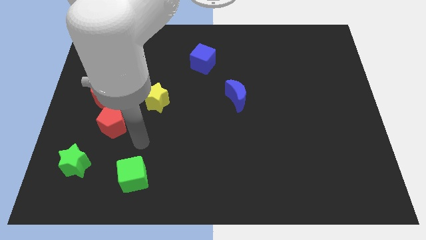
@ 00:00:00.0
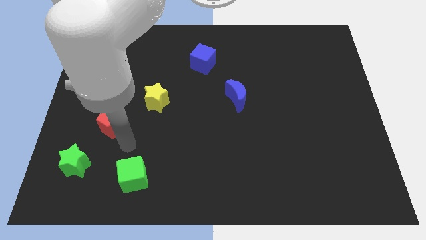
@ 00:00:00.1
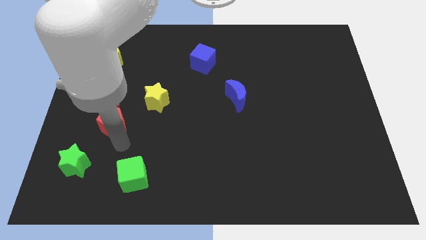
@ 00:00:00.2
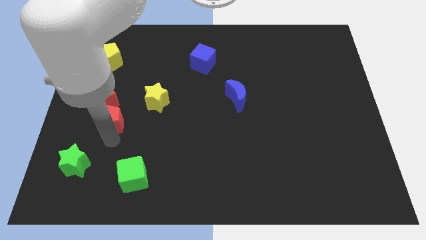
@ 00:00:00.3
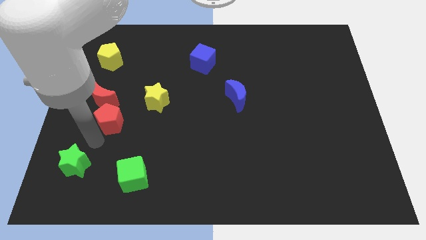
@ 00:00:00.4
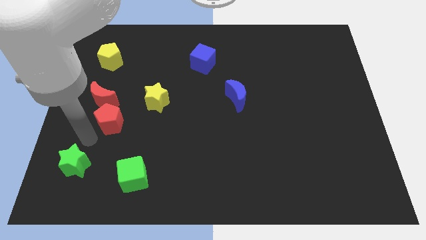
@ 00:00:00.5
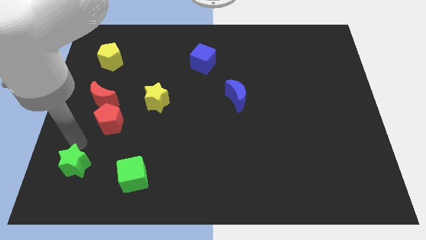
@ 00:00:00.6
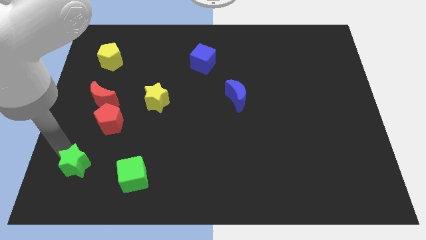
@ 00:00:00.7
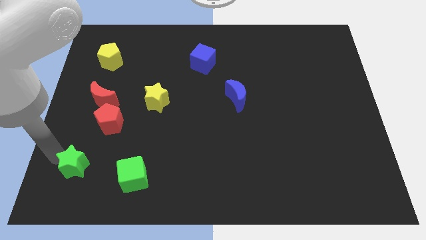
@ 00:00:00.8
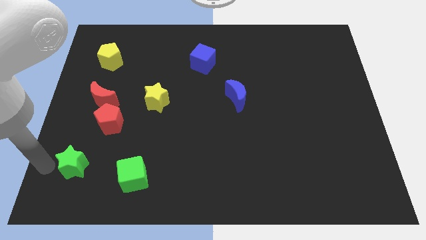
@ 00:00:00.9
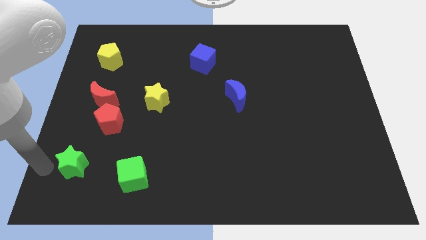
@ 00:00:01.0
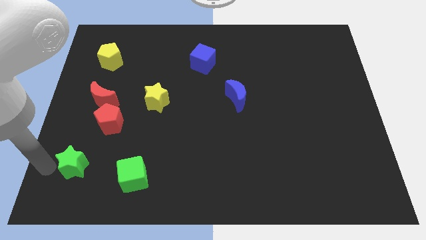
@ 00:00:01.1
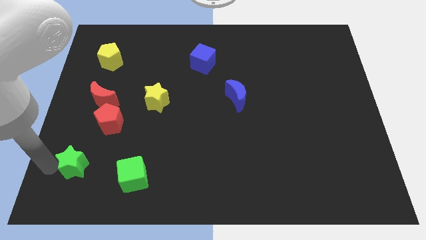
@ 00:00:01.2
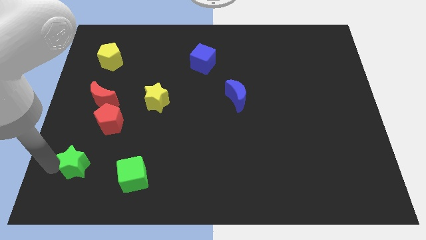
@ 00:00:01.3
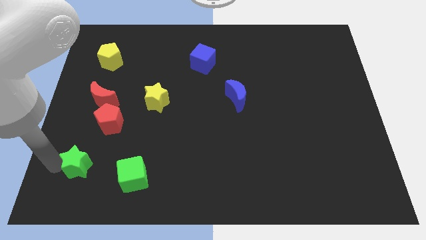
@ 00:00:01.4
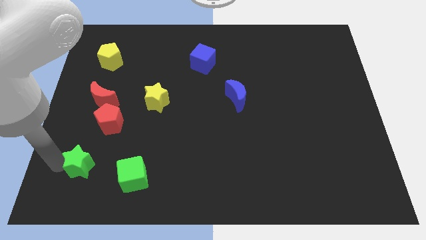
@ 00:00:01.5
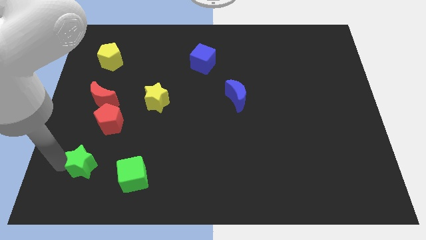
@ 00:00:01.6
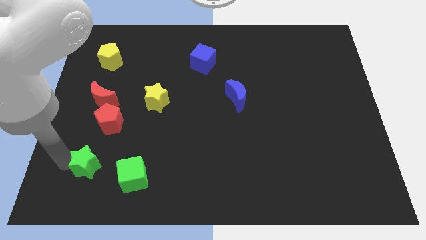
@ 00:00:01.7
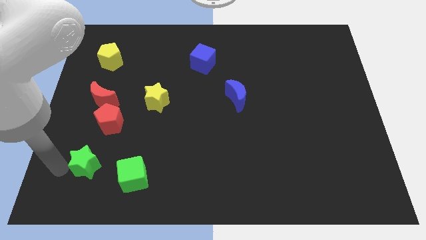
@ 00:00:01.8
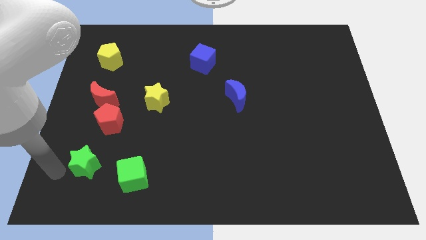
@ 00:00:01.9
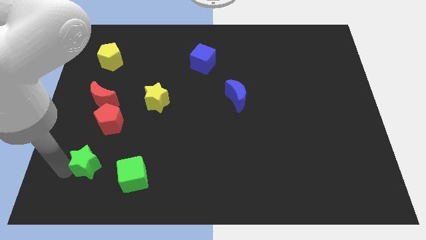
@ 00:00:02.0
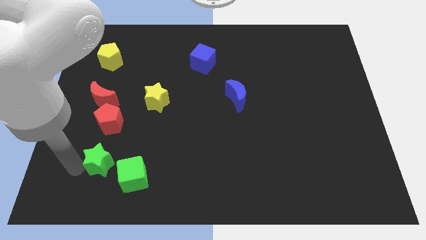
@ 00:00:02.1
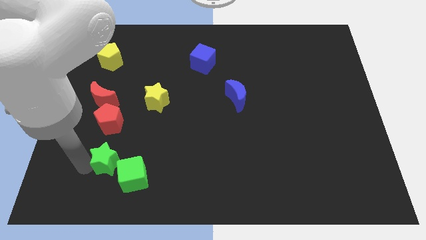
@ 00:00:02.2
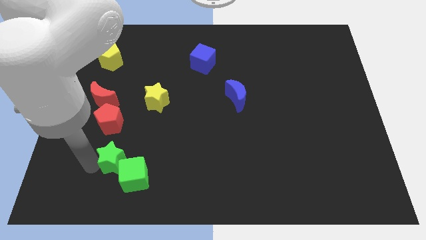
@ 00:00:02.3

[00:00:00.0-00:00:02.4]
slide the green star slightly to the right

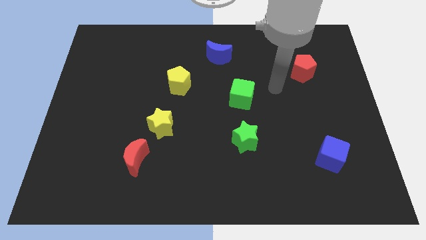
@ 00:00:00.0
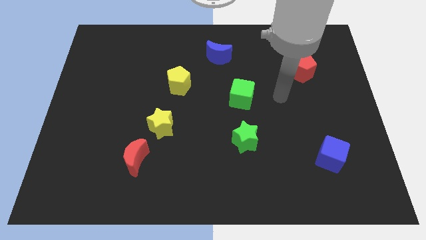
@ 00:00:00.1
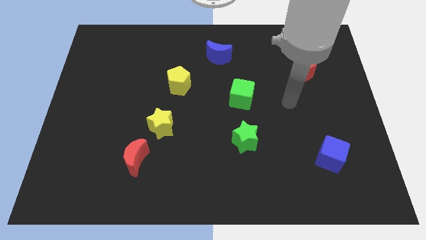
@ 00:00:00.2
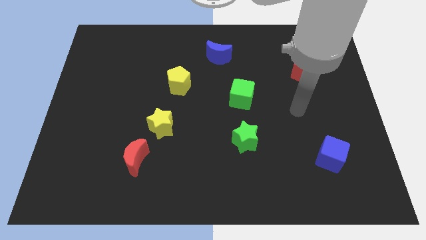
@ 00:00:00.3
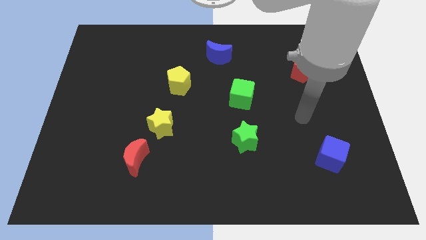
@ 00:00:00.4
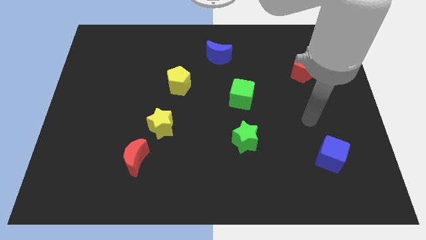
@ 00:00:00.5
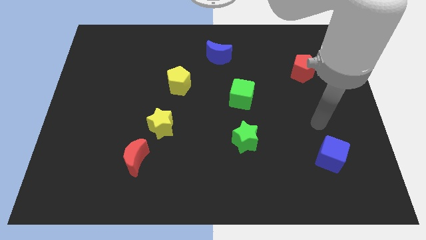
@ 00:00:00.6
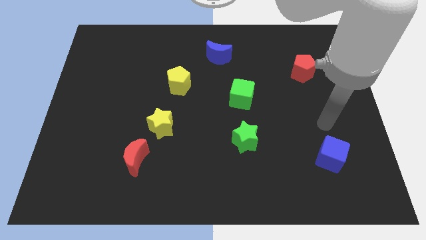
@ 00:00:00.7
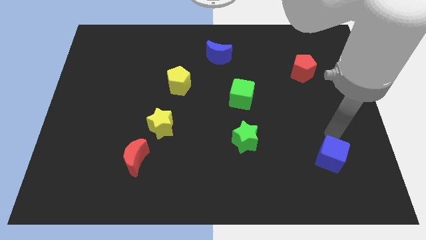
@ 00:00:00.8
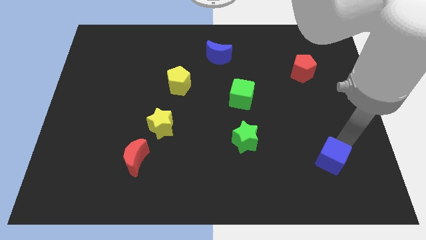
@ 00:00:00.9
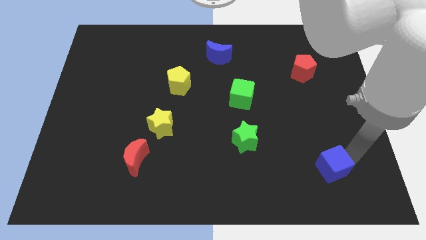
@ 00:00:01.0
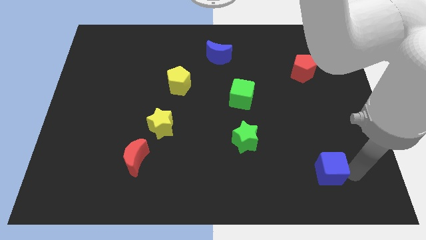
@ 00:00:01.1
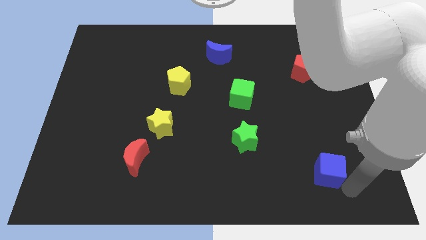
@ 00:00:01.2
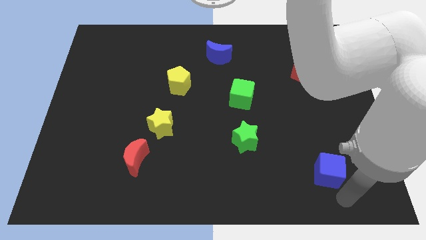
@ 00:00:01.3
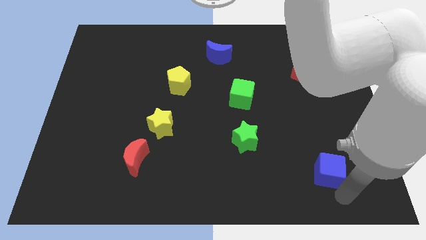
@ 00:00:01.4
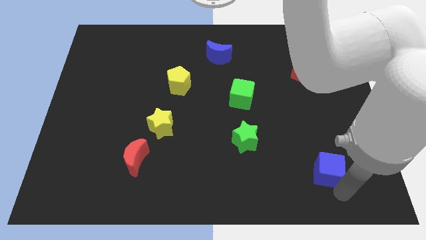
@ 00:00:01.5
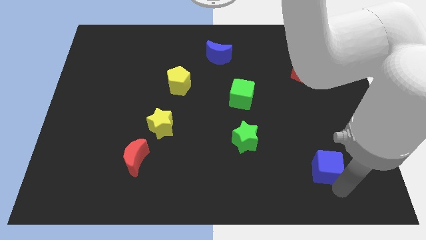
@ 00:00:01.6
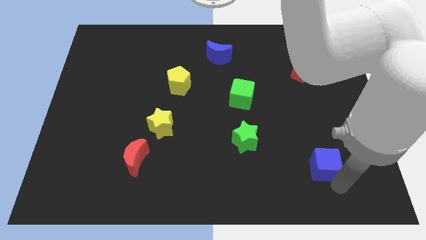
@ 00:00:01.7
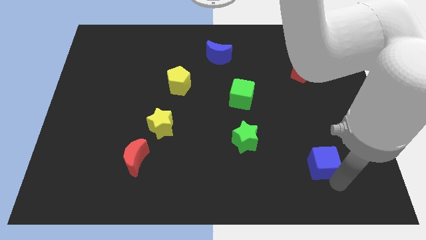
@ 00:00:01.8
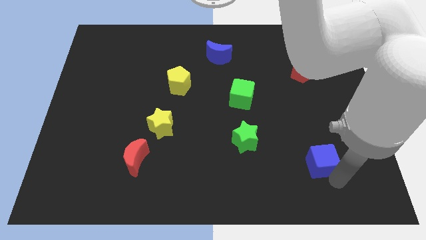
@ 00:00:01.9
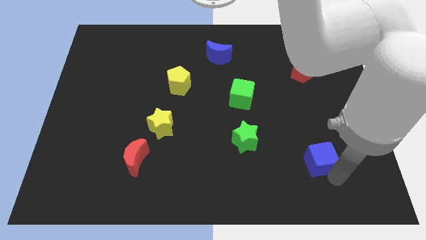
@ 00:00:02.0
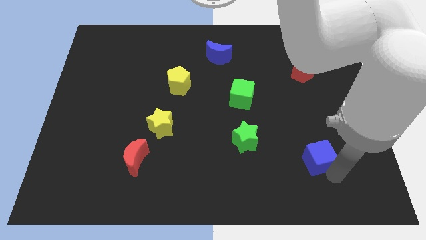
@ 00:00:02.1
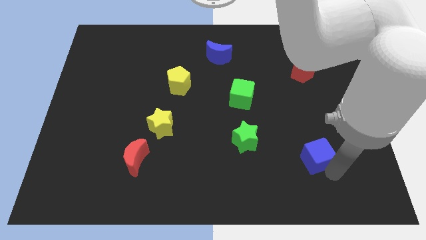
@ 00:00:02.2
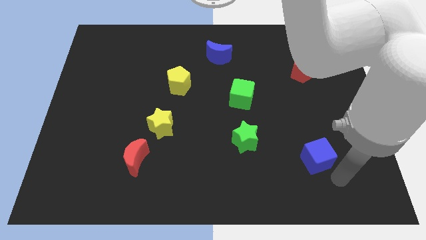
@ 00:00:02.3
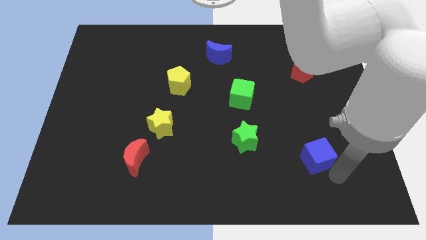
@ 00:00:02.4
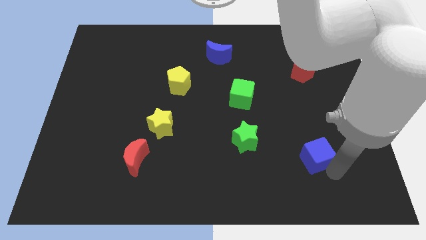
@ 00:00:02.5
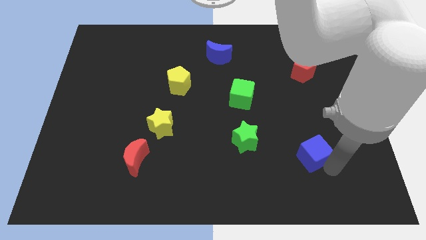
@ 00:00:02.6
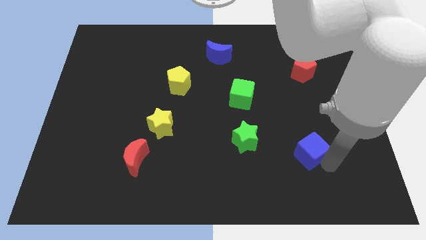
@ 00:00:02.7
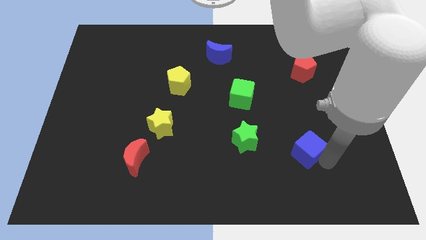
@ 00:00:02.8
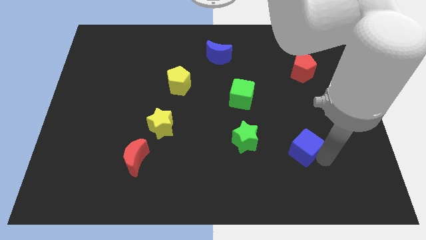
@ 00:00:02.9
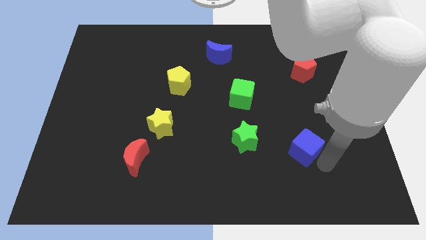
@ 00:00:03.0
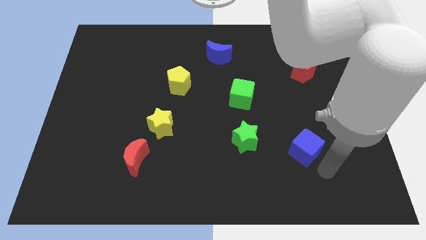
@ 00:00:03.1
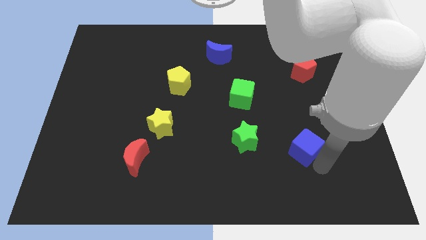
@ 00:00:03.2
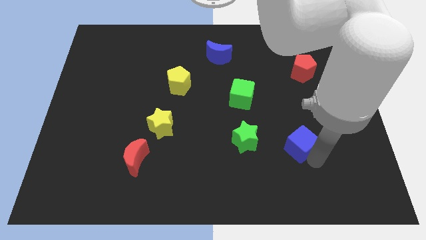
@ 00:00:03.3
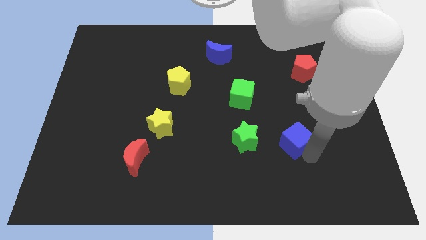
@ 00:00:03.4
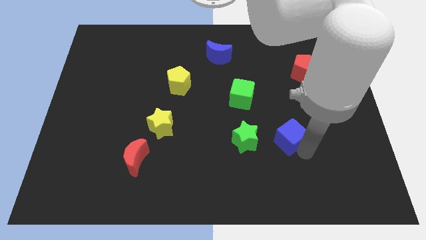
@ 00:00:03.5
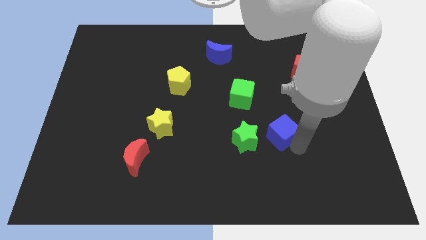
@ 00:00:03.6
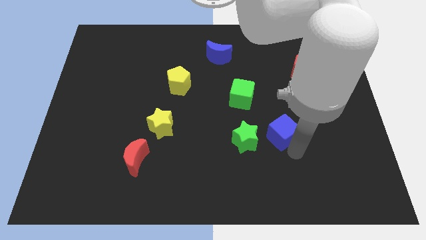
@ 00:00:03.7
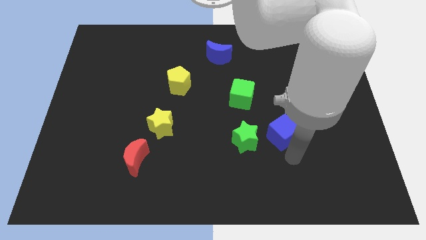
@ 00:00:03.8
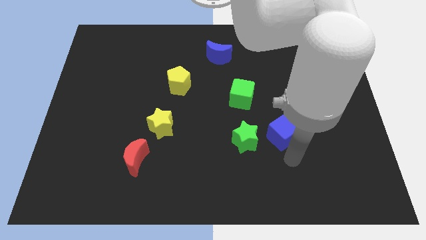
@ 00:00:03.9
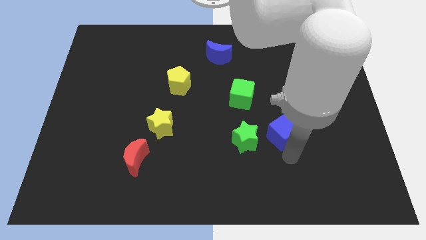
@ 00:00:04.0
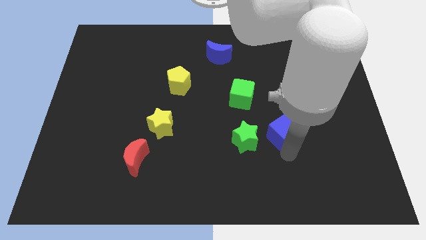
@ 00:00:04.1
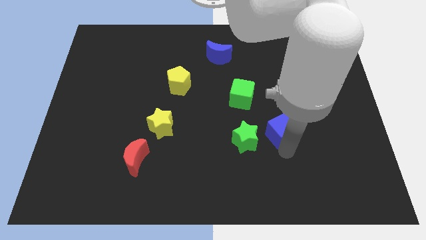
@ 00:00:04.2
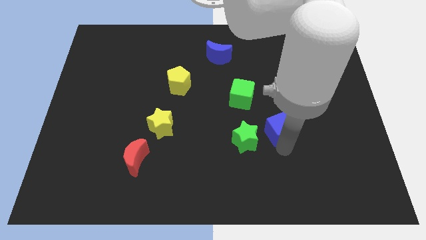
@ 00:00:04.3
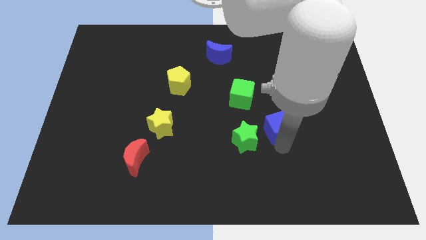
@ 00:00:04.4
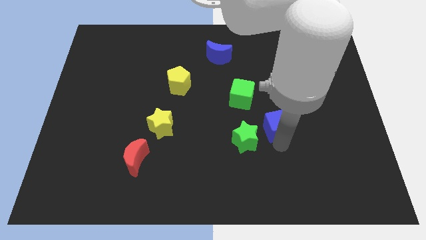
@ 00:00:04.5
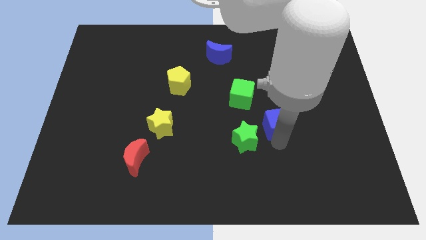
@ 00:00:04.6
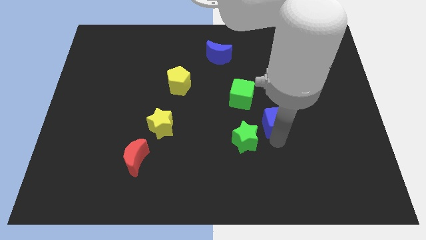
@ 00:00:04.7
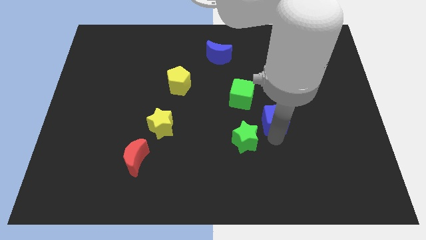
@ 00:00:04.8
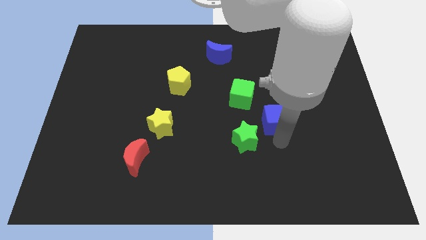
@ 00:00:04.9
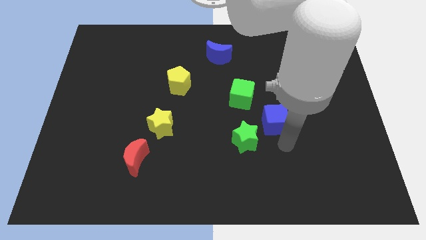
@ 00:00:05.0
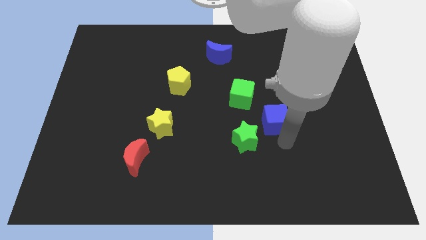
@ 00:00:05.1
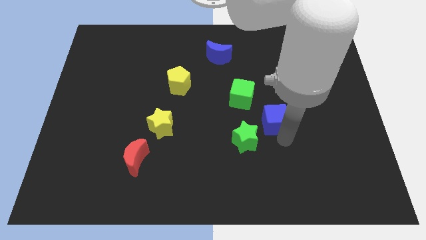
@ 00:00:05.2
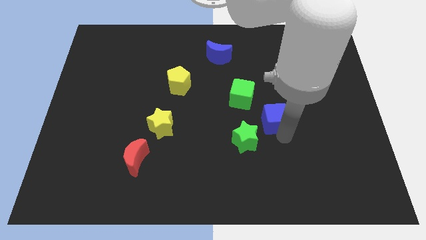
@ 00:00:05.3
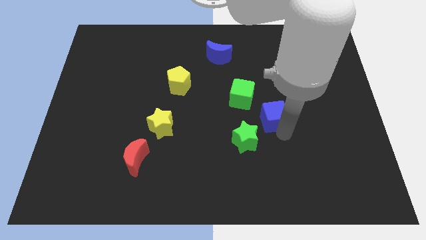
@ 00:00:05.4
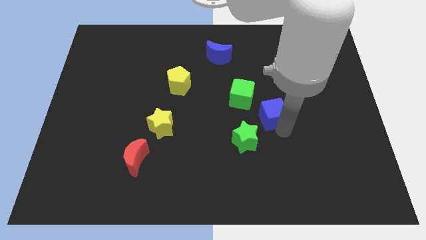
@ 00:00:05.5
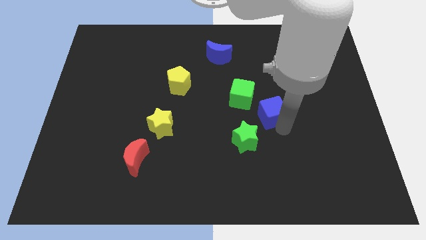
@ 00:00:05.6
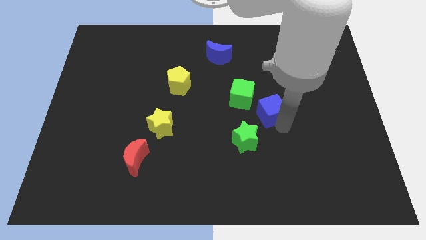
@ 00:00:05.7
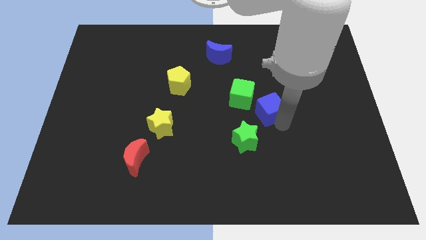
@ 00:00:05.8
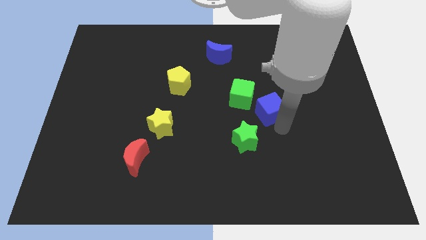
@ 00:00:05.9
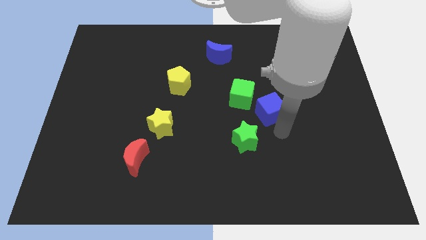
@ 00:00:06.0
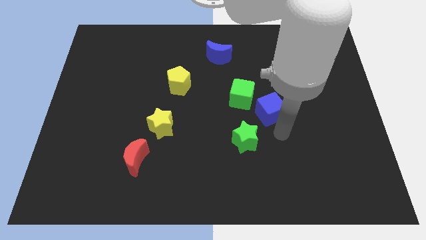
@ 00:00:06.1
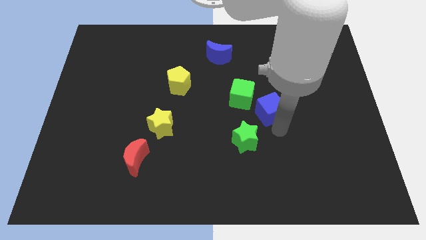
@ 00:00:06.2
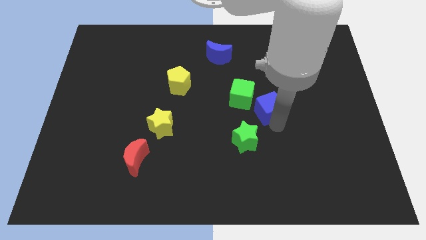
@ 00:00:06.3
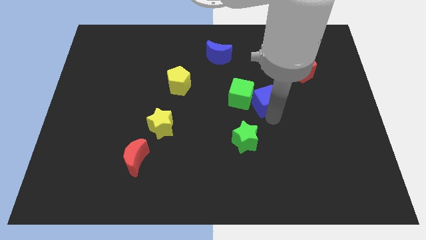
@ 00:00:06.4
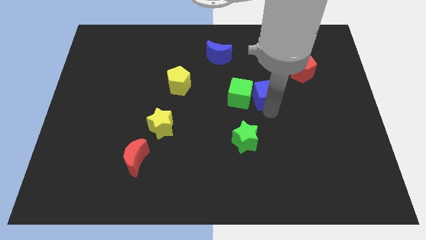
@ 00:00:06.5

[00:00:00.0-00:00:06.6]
push the blue cube upwards and to the left diagonally
